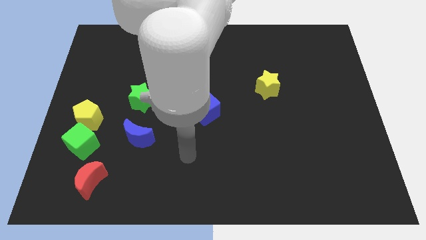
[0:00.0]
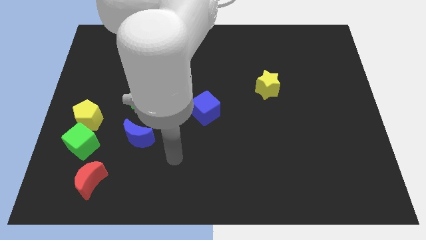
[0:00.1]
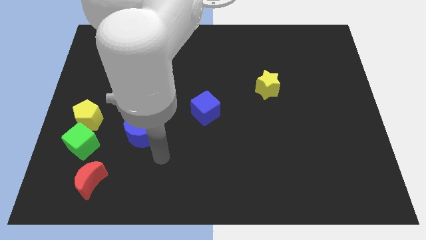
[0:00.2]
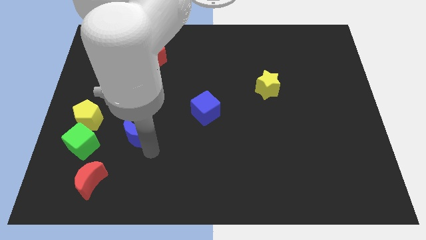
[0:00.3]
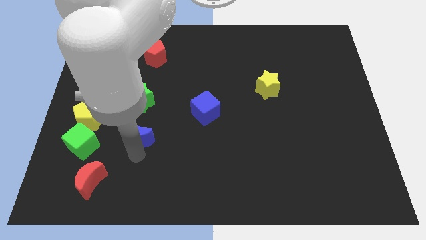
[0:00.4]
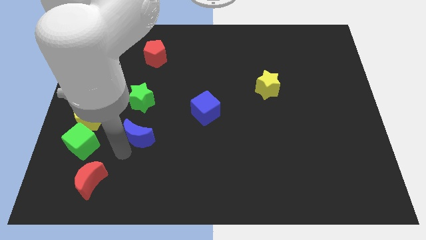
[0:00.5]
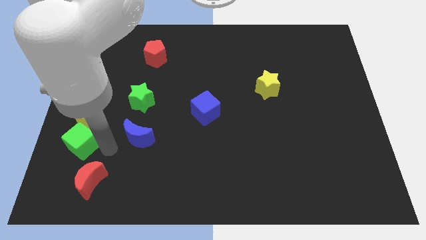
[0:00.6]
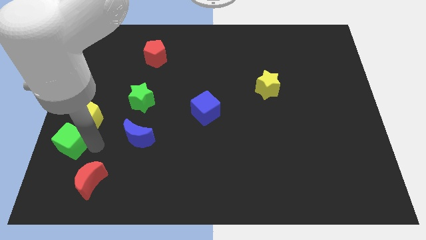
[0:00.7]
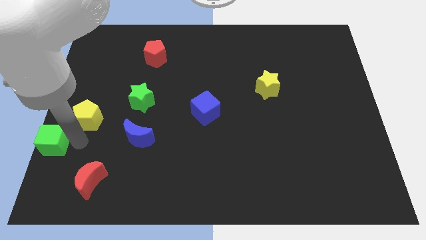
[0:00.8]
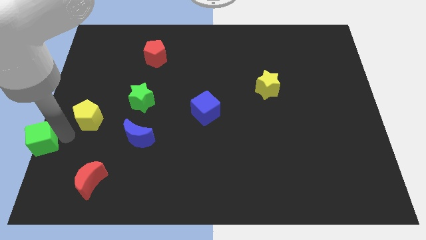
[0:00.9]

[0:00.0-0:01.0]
separate the yellow pentagon from the green cube

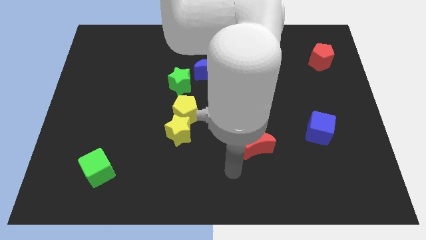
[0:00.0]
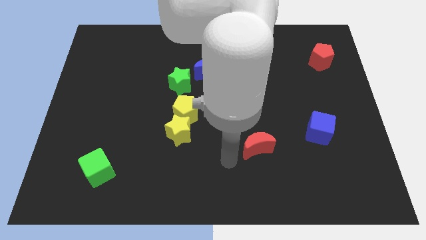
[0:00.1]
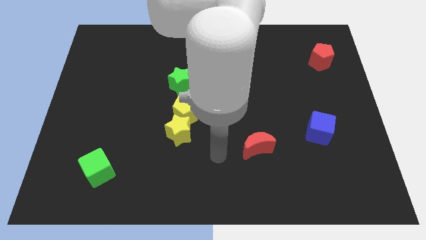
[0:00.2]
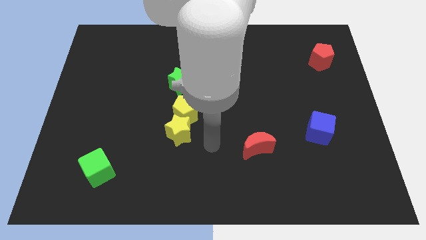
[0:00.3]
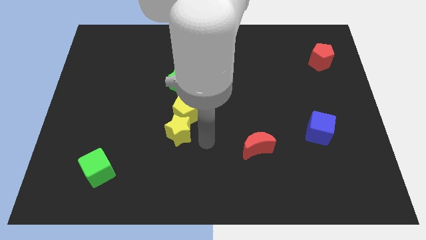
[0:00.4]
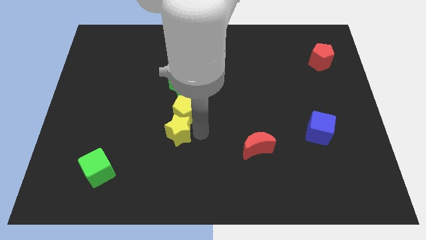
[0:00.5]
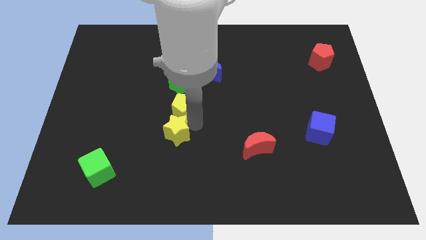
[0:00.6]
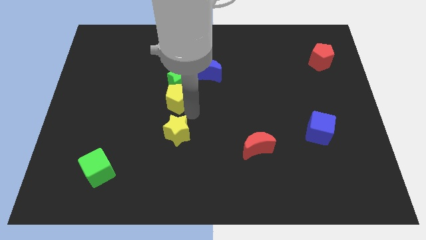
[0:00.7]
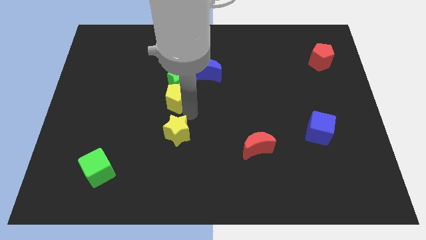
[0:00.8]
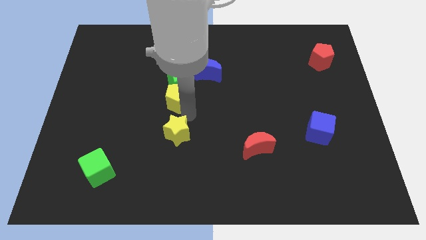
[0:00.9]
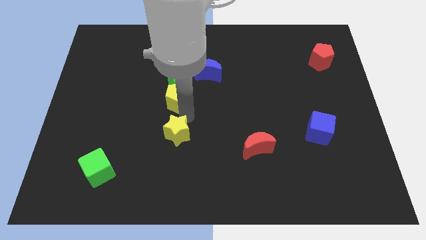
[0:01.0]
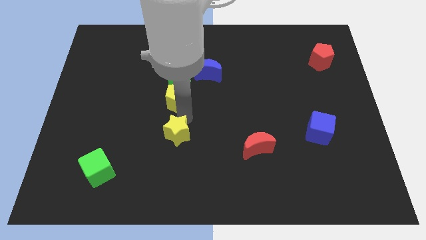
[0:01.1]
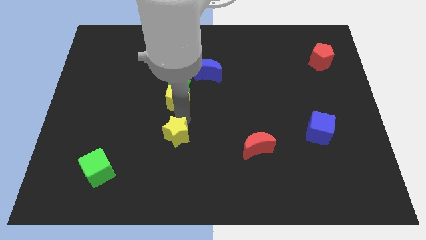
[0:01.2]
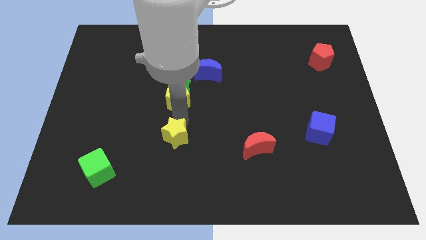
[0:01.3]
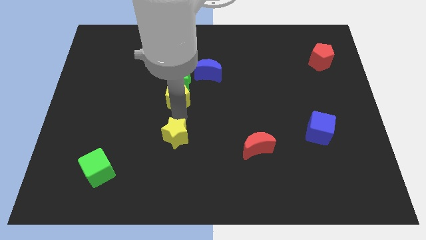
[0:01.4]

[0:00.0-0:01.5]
move the yellow star away from the yellow pentagon

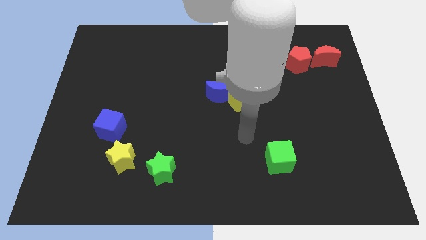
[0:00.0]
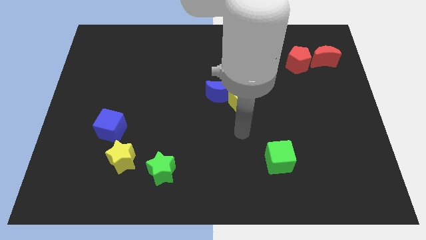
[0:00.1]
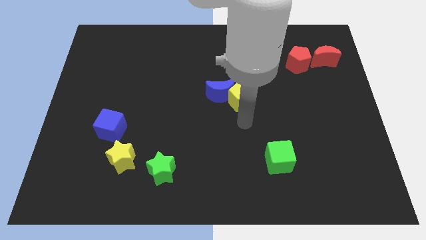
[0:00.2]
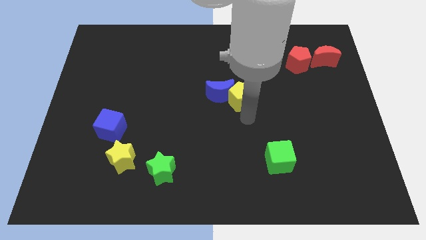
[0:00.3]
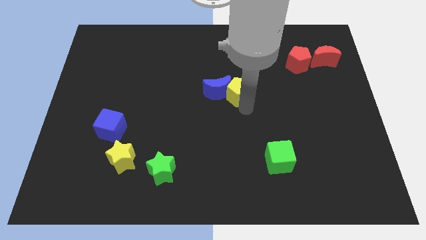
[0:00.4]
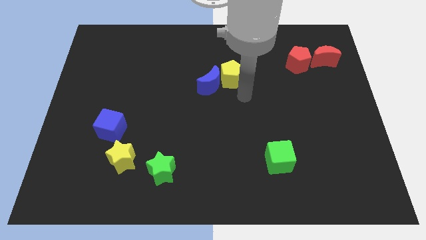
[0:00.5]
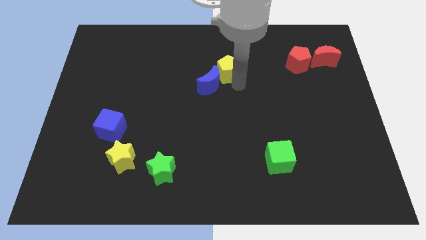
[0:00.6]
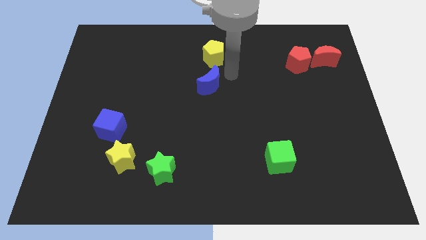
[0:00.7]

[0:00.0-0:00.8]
separate the blue moon from the yellow pentagon

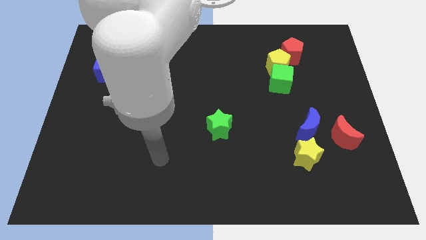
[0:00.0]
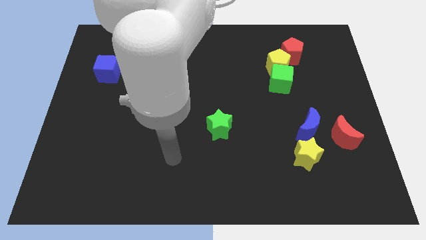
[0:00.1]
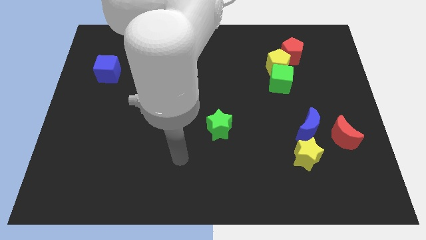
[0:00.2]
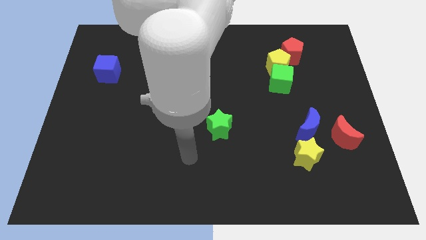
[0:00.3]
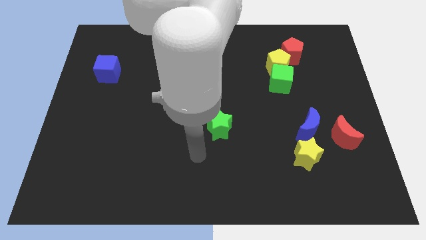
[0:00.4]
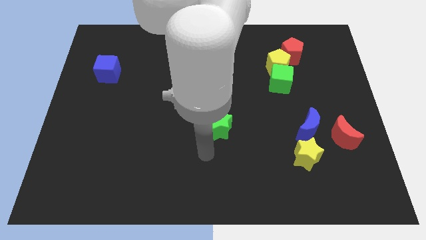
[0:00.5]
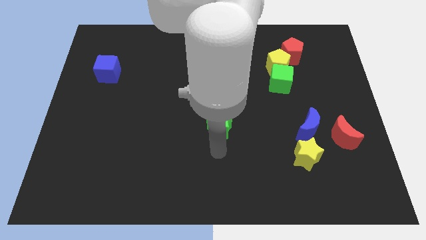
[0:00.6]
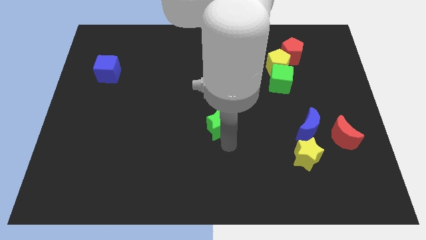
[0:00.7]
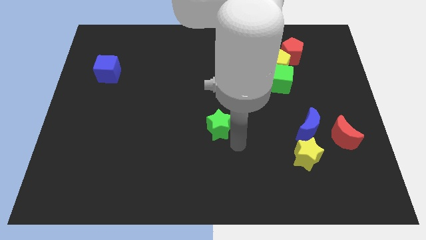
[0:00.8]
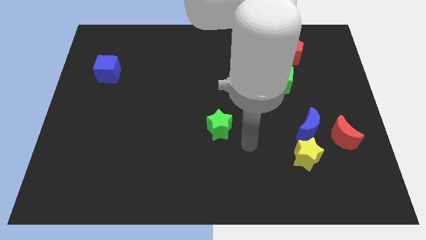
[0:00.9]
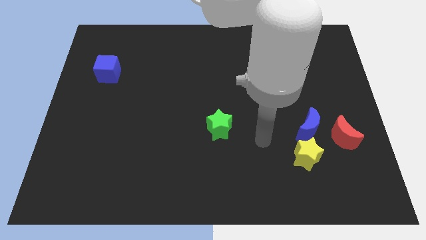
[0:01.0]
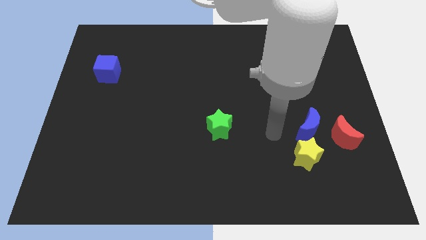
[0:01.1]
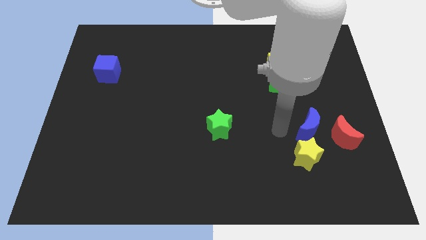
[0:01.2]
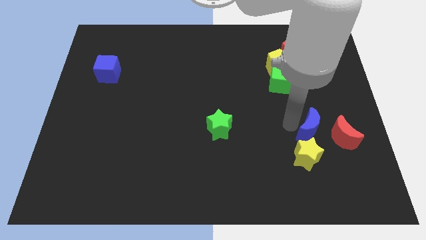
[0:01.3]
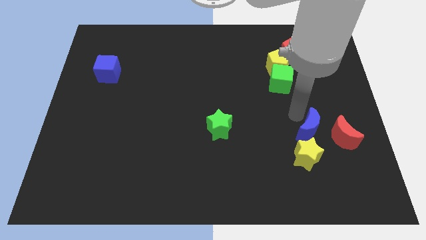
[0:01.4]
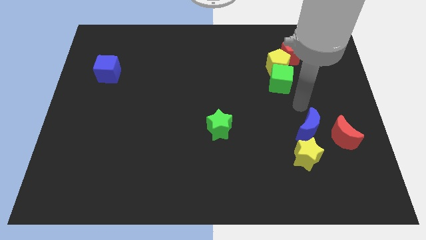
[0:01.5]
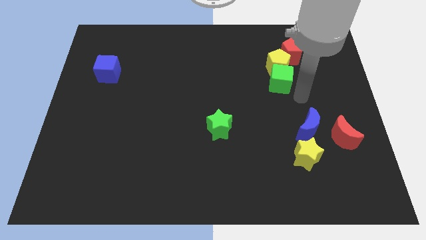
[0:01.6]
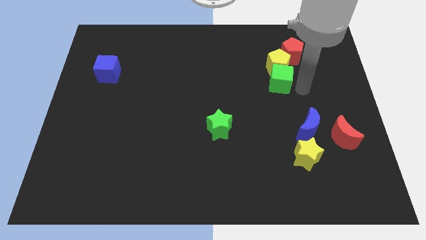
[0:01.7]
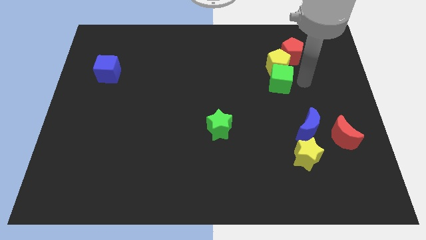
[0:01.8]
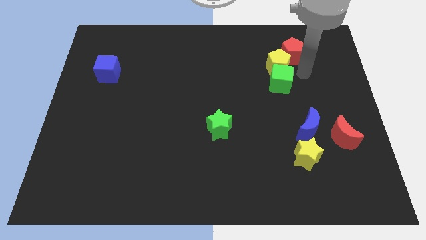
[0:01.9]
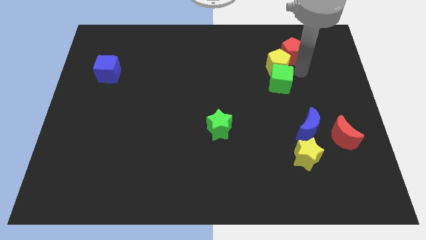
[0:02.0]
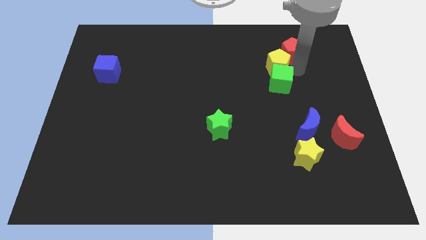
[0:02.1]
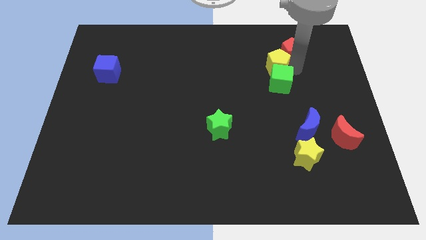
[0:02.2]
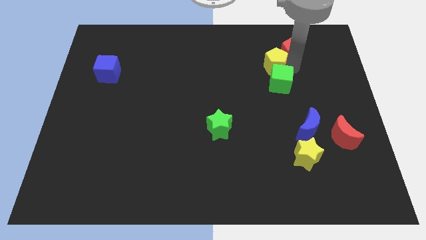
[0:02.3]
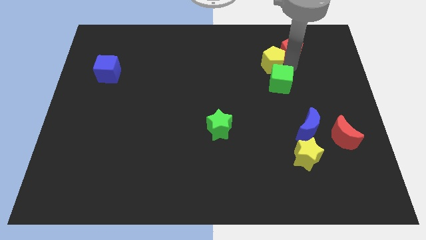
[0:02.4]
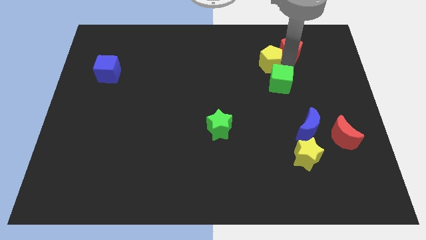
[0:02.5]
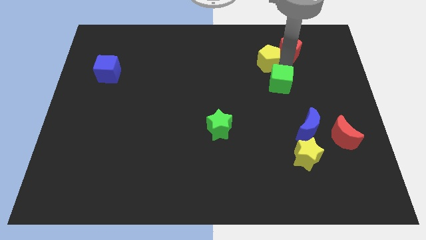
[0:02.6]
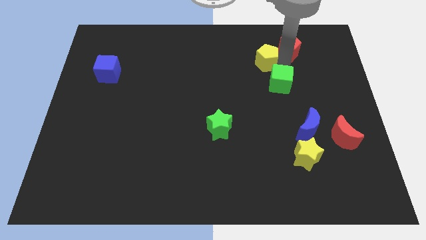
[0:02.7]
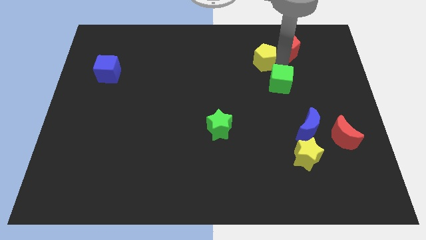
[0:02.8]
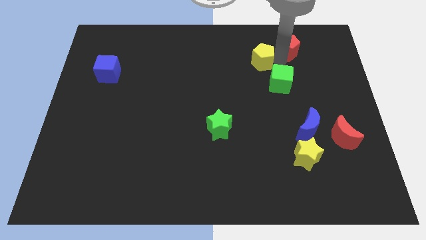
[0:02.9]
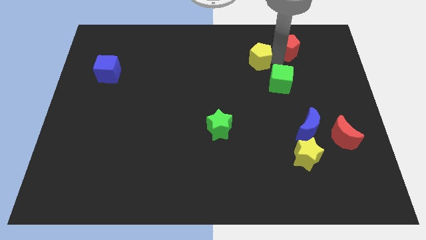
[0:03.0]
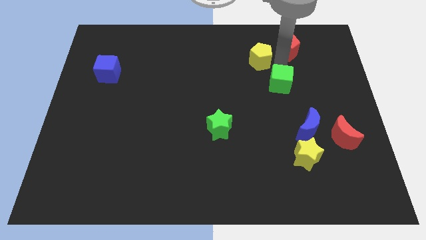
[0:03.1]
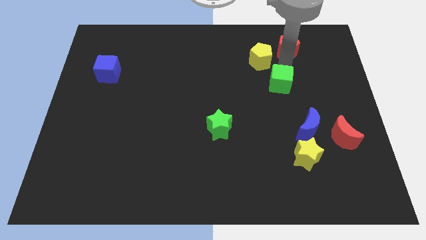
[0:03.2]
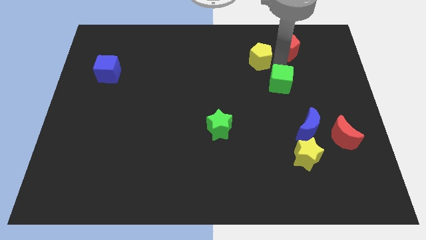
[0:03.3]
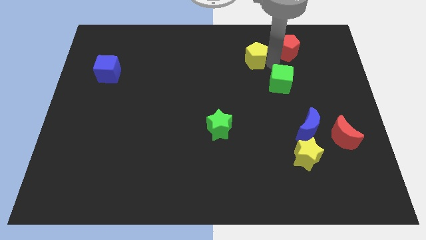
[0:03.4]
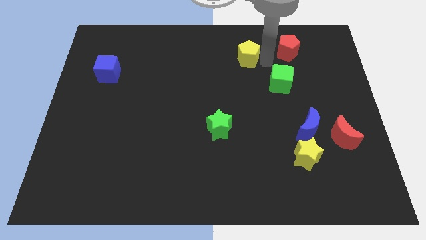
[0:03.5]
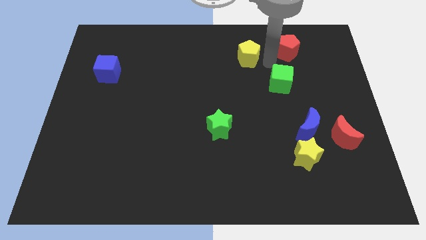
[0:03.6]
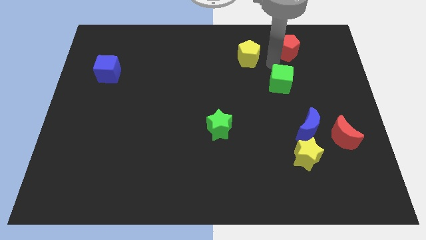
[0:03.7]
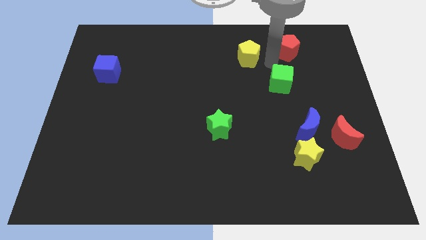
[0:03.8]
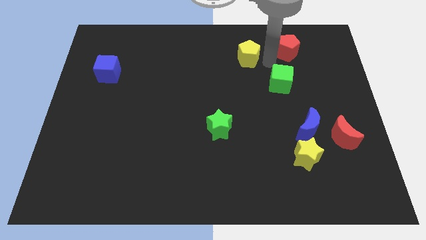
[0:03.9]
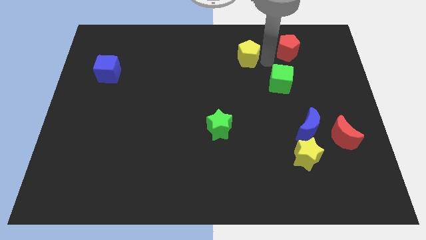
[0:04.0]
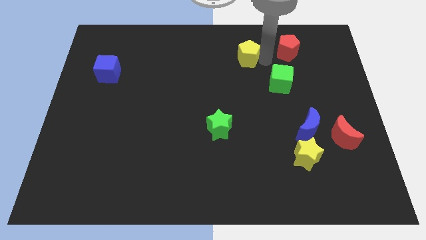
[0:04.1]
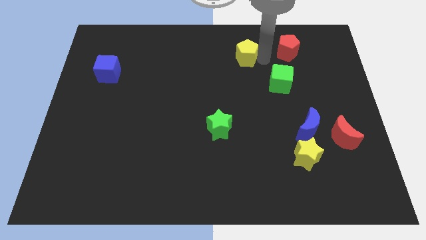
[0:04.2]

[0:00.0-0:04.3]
separate the yellow pentagon from the green cube and red pentagon

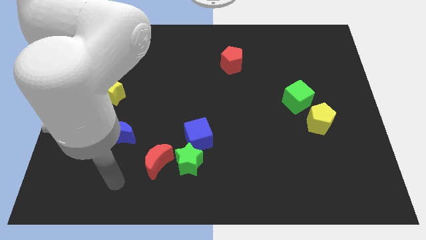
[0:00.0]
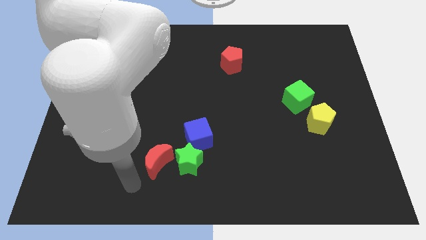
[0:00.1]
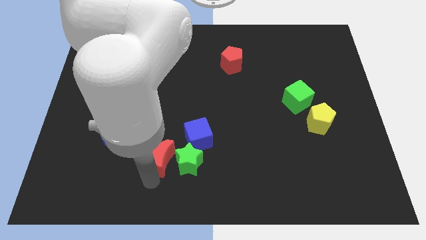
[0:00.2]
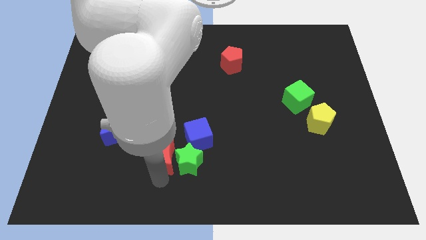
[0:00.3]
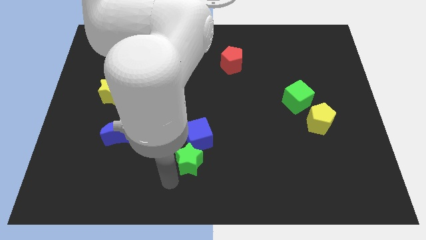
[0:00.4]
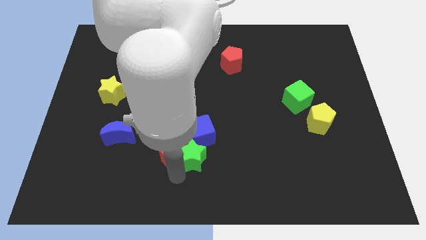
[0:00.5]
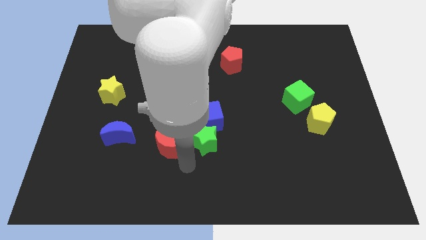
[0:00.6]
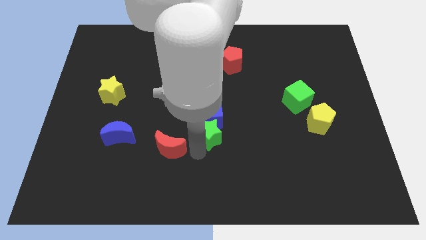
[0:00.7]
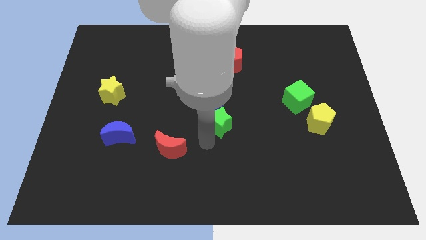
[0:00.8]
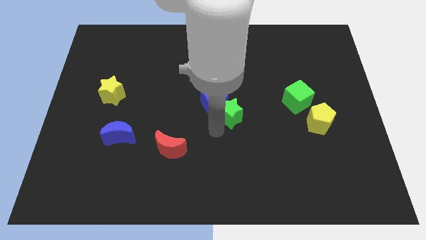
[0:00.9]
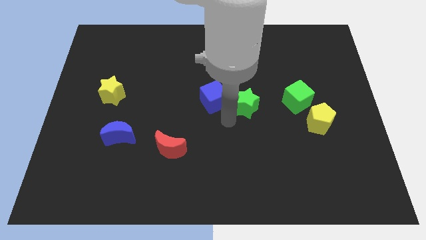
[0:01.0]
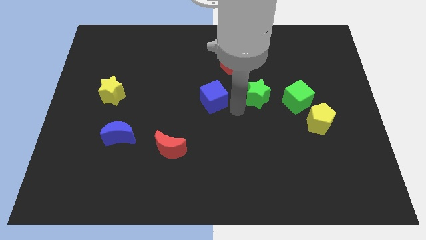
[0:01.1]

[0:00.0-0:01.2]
pull the blue cube apart from the green star

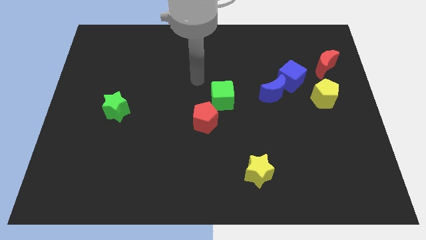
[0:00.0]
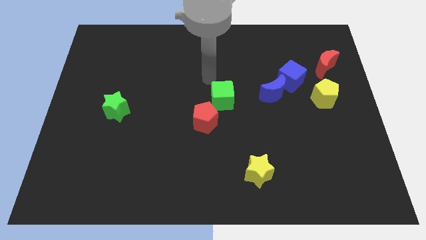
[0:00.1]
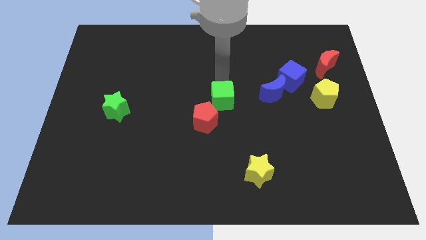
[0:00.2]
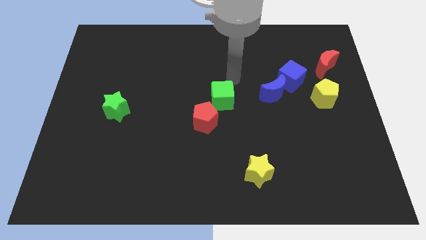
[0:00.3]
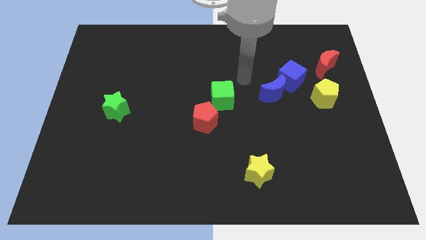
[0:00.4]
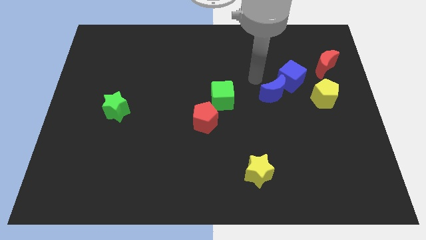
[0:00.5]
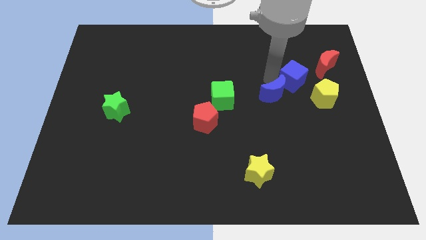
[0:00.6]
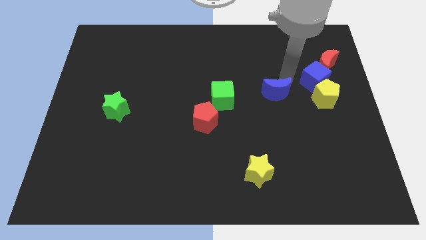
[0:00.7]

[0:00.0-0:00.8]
pull the blue moon apart from the blue cube
